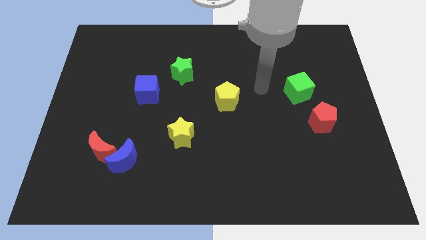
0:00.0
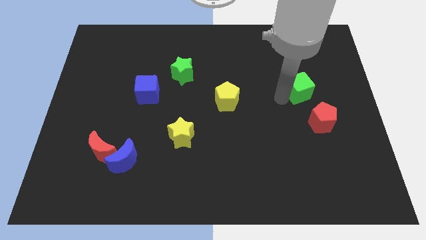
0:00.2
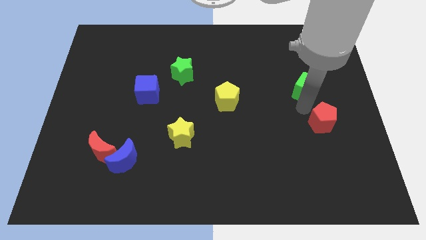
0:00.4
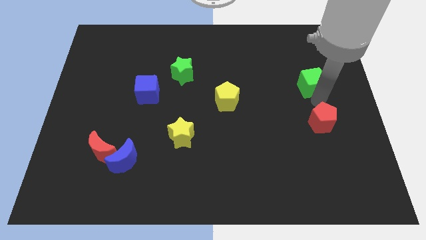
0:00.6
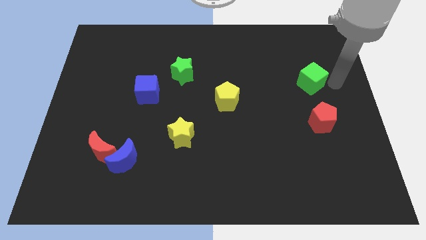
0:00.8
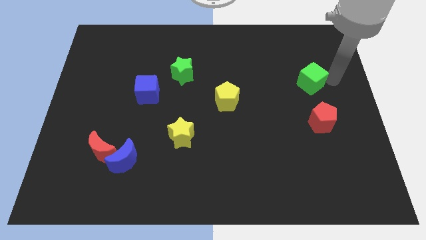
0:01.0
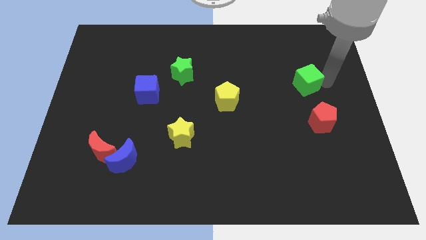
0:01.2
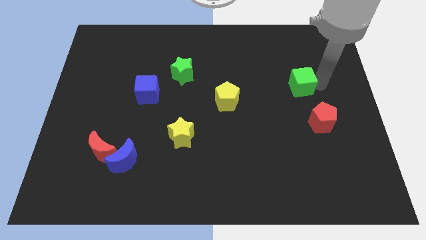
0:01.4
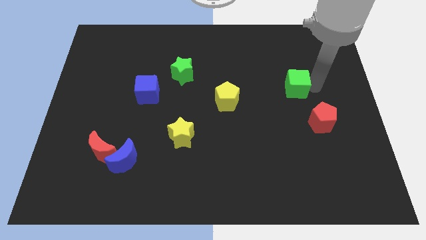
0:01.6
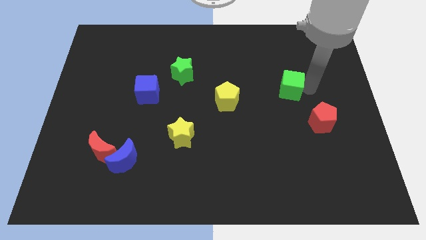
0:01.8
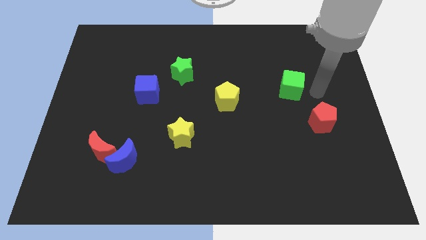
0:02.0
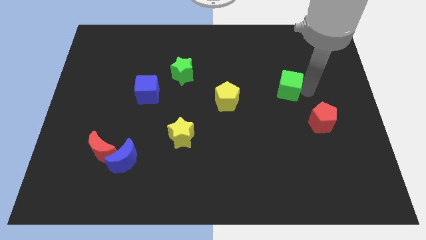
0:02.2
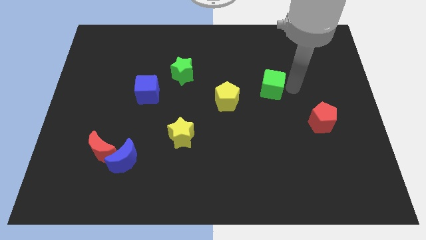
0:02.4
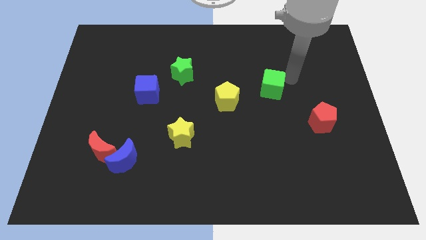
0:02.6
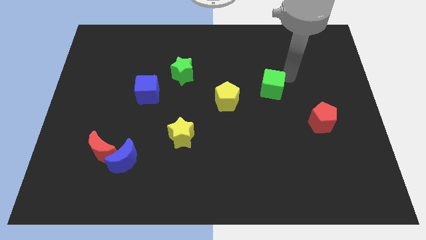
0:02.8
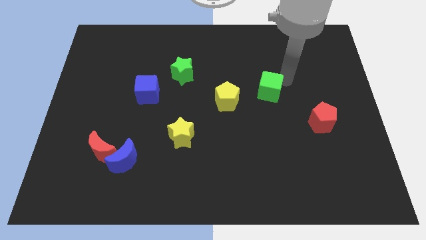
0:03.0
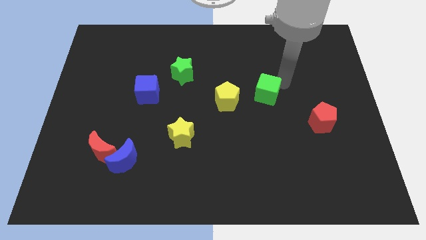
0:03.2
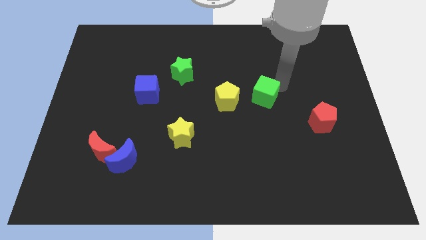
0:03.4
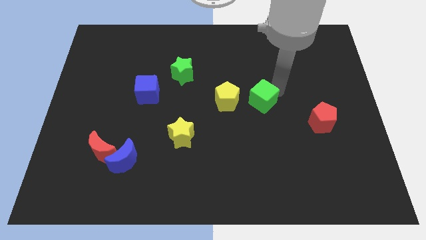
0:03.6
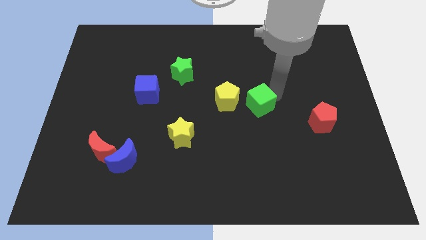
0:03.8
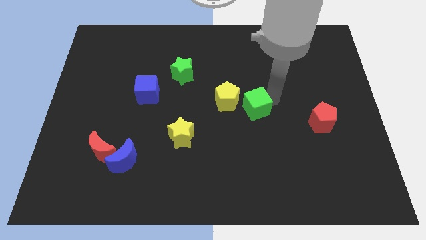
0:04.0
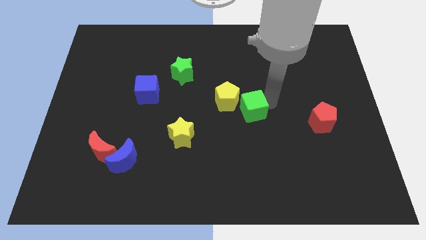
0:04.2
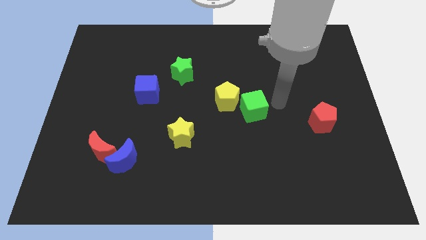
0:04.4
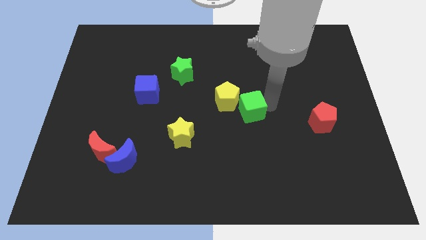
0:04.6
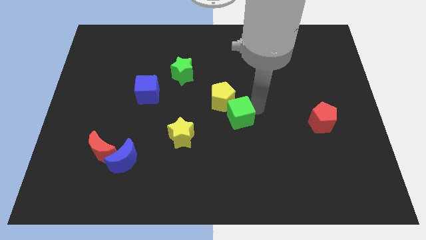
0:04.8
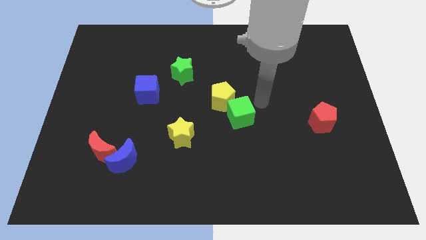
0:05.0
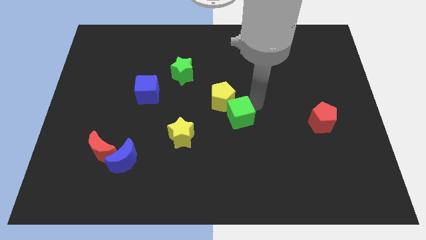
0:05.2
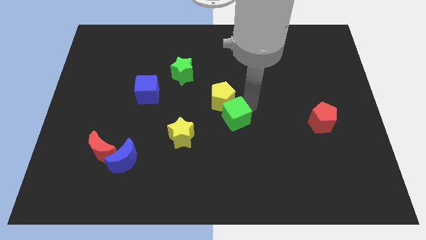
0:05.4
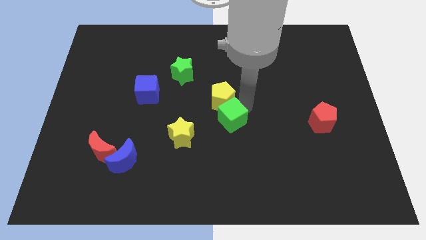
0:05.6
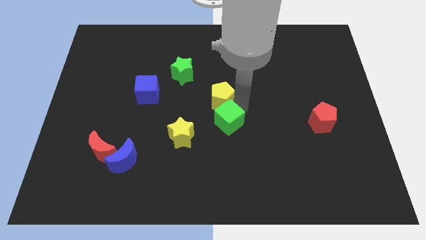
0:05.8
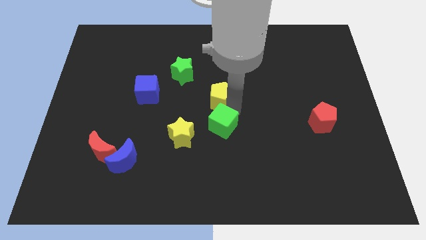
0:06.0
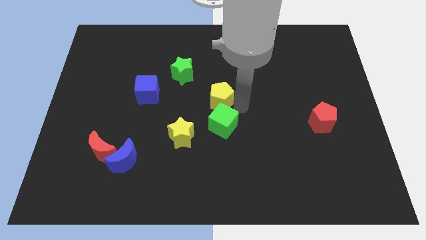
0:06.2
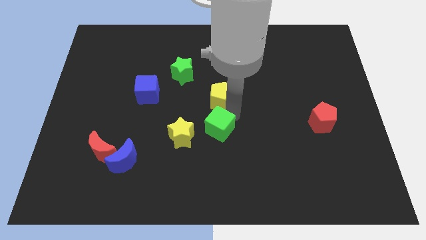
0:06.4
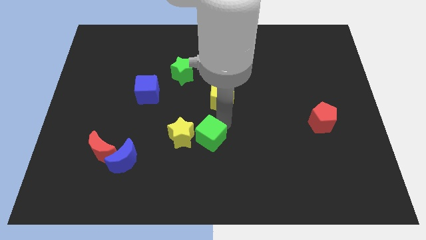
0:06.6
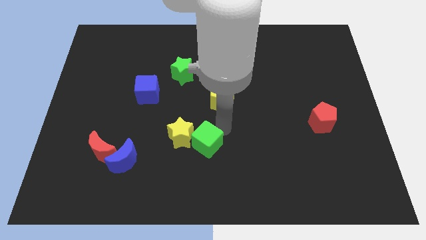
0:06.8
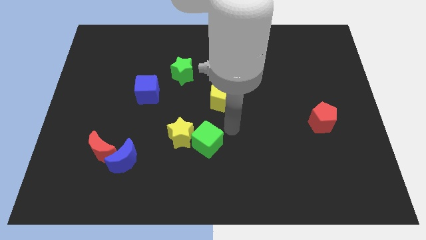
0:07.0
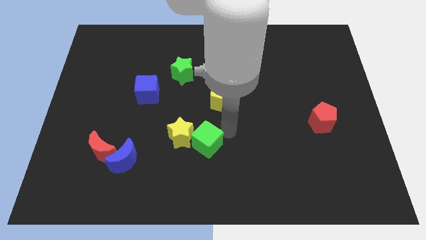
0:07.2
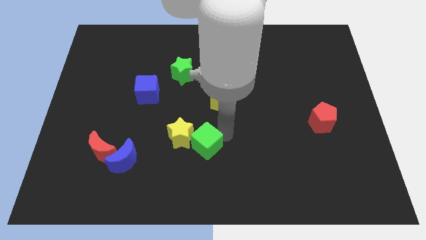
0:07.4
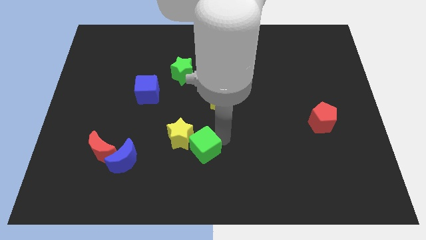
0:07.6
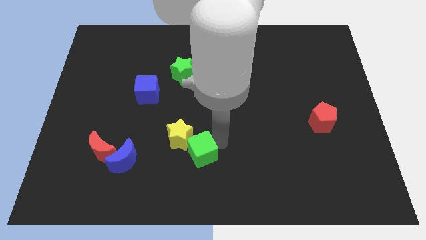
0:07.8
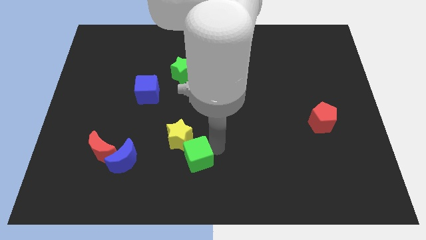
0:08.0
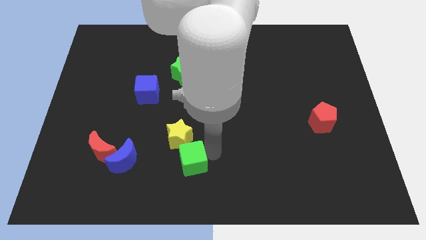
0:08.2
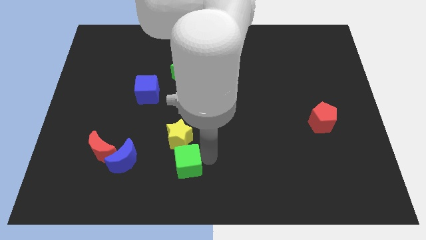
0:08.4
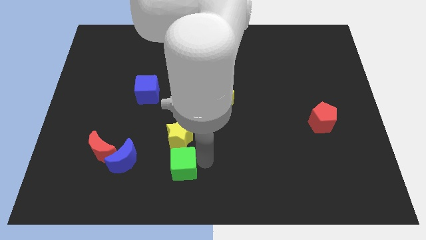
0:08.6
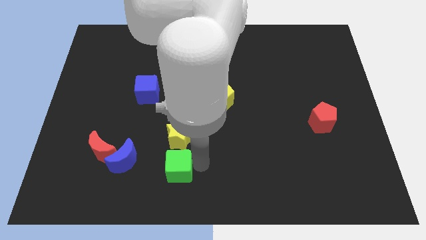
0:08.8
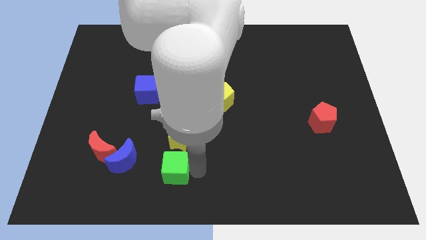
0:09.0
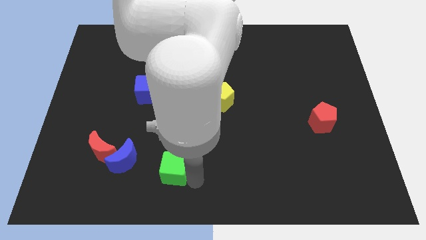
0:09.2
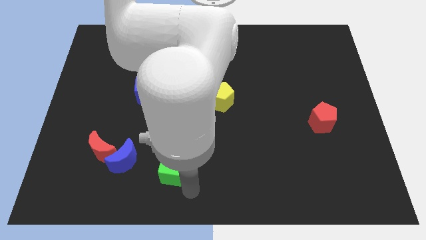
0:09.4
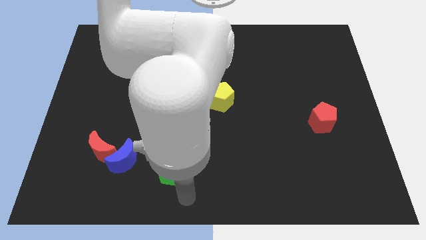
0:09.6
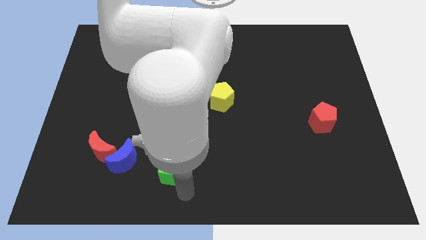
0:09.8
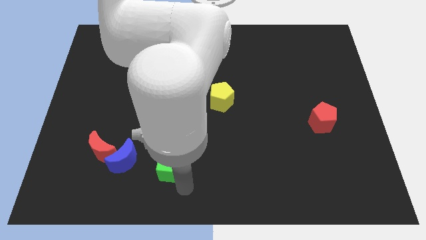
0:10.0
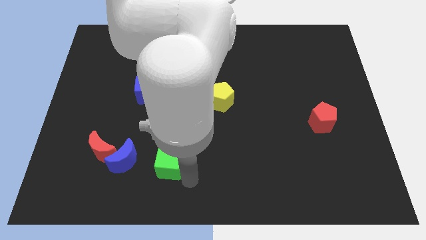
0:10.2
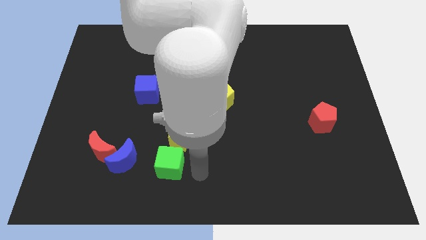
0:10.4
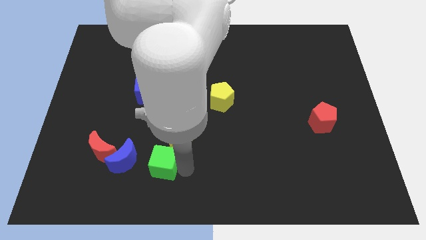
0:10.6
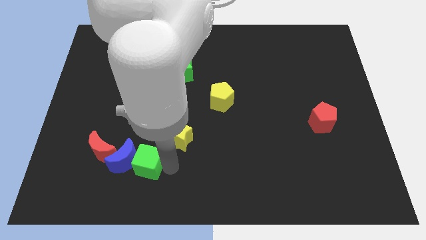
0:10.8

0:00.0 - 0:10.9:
slide the green cube next to the blue moon

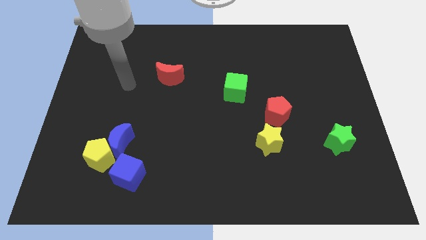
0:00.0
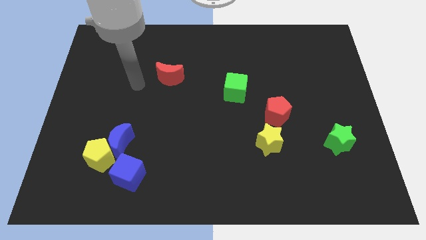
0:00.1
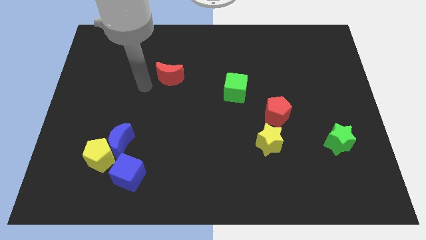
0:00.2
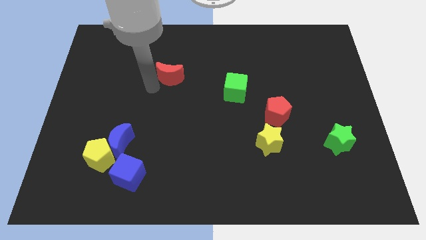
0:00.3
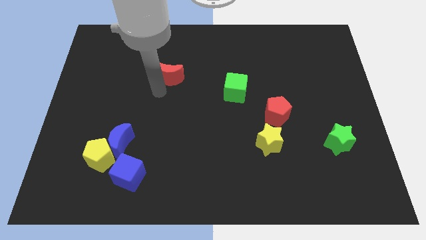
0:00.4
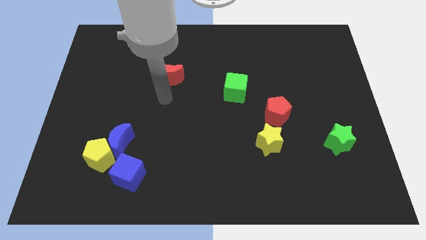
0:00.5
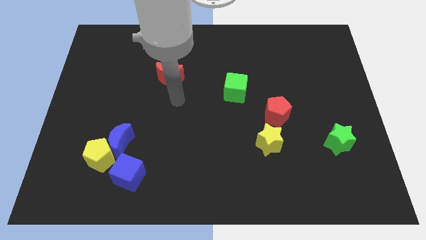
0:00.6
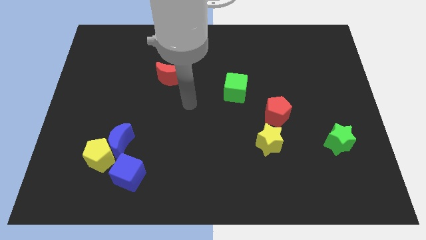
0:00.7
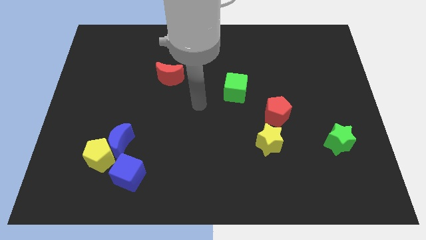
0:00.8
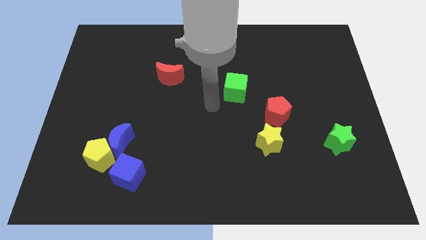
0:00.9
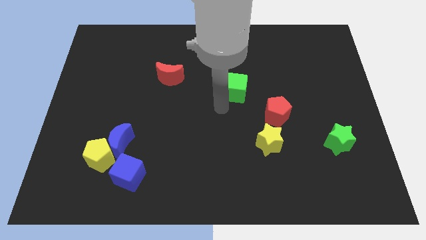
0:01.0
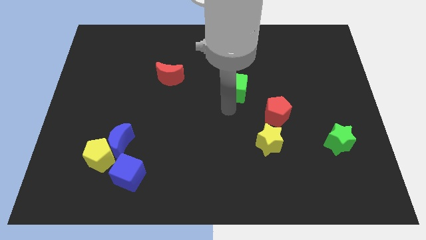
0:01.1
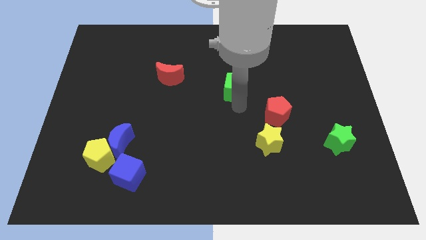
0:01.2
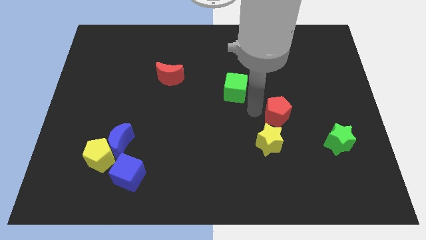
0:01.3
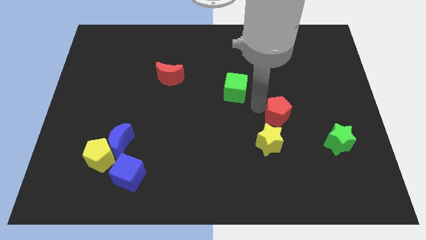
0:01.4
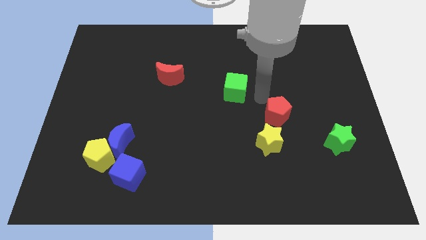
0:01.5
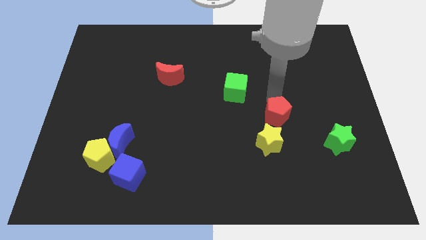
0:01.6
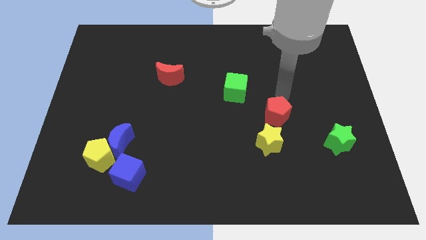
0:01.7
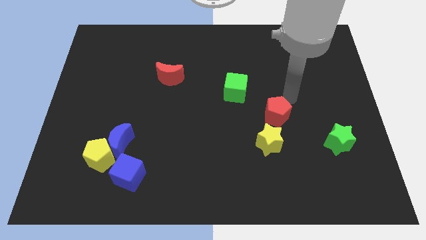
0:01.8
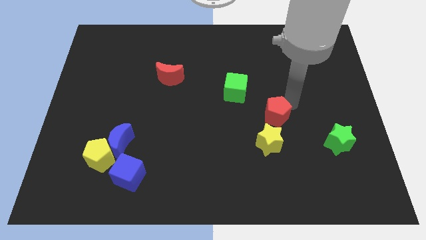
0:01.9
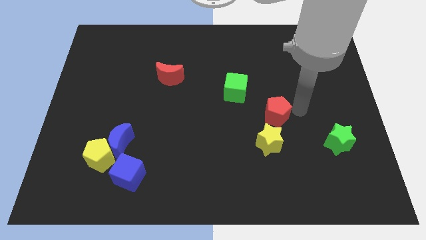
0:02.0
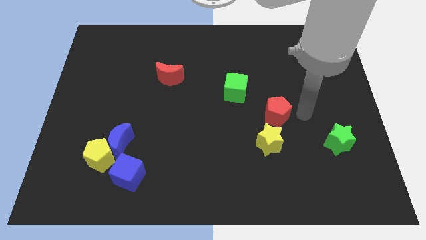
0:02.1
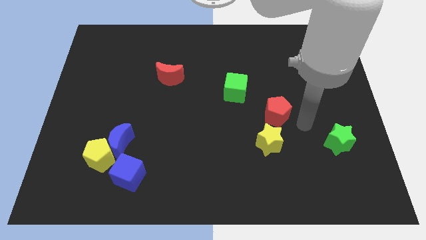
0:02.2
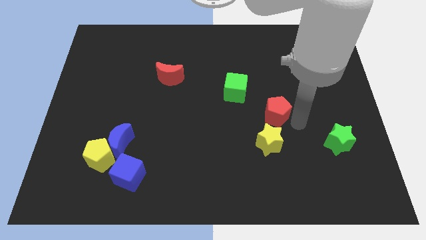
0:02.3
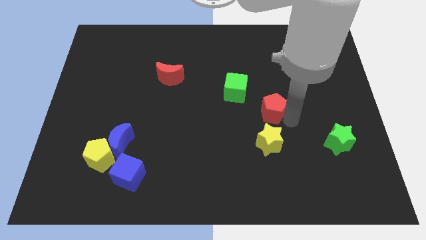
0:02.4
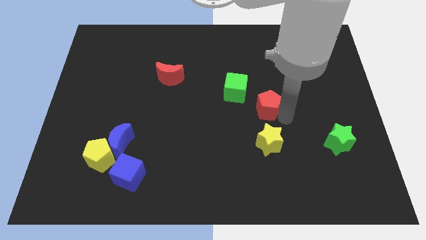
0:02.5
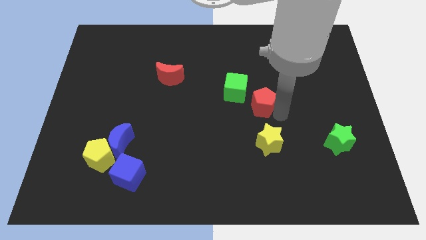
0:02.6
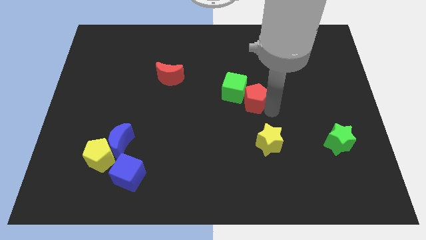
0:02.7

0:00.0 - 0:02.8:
move the red pentagon to the green cube
